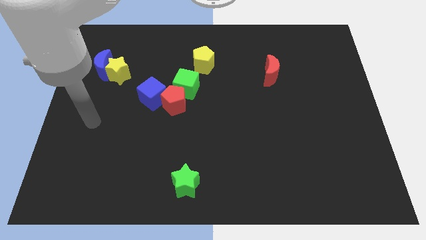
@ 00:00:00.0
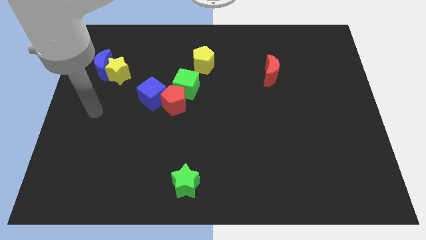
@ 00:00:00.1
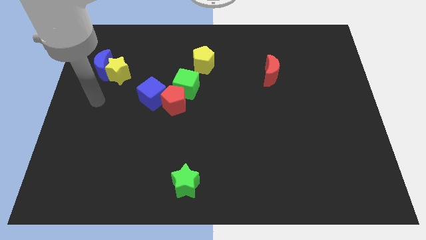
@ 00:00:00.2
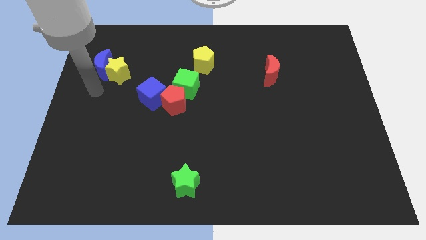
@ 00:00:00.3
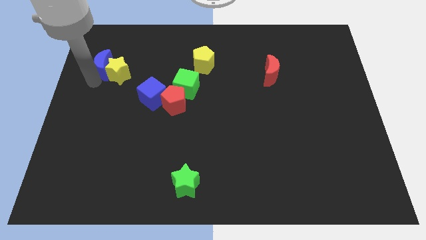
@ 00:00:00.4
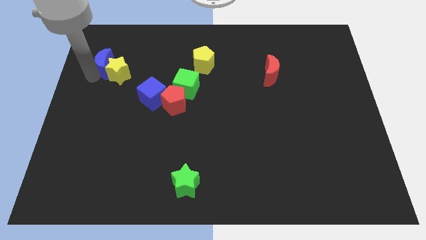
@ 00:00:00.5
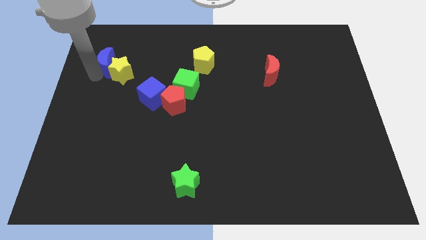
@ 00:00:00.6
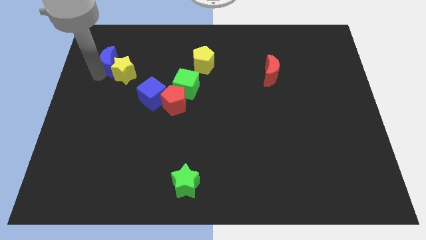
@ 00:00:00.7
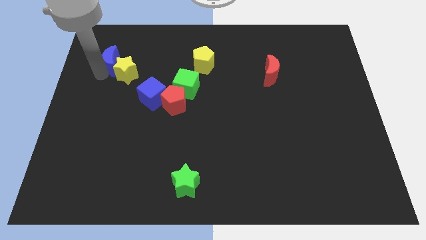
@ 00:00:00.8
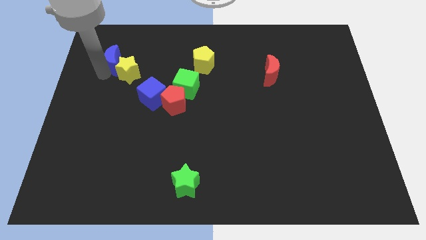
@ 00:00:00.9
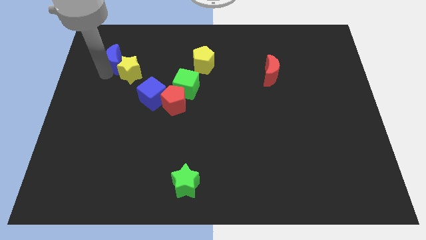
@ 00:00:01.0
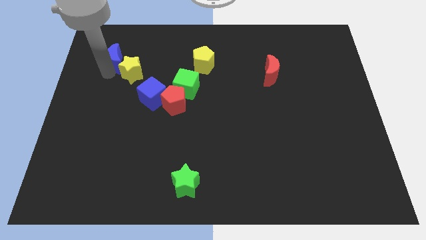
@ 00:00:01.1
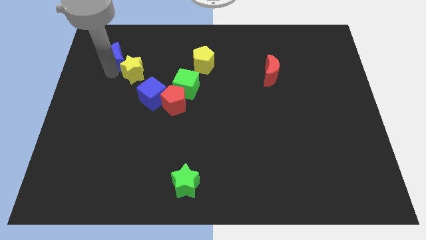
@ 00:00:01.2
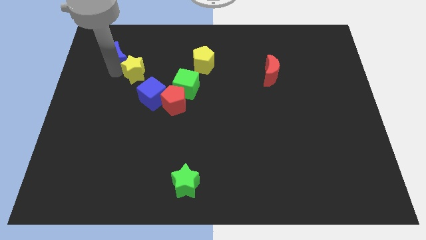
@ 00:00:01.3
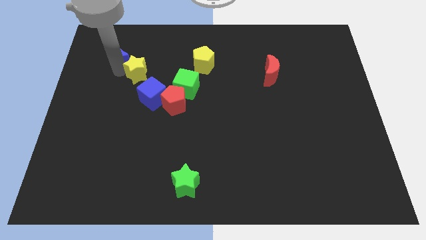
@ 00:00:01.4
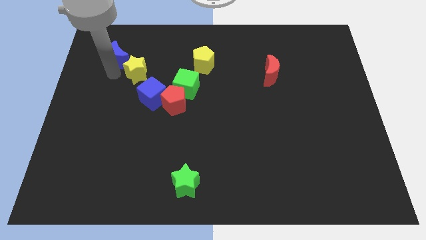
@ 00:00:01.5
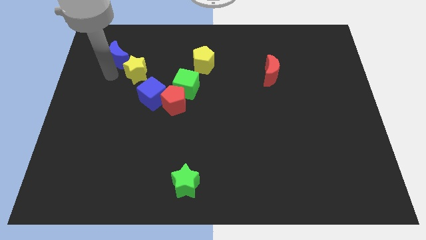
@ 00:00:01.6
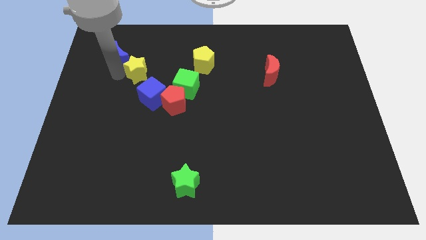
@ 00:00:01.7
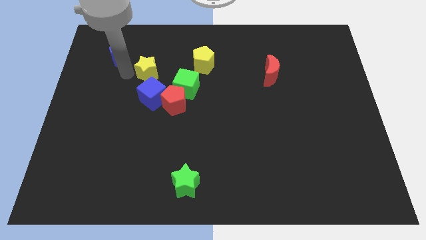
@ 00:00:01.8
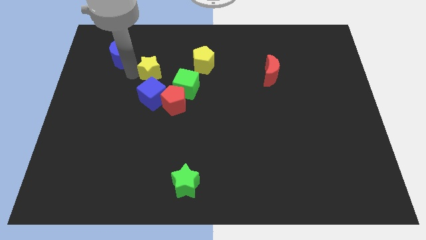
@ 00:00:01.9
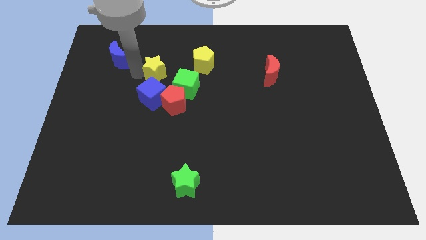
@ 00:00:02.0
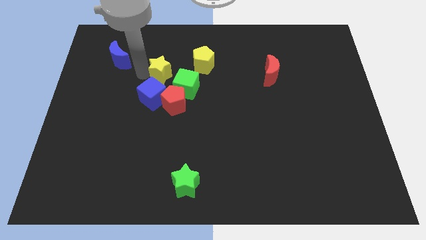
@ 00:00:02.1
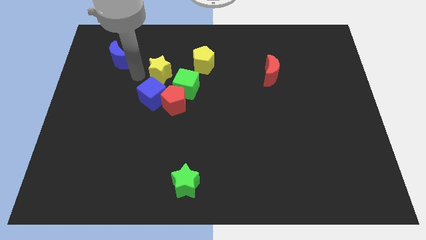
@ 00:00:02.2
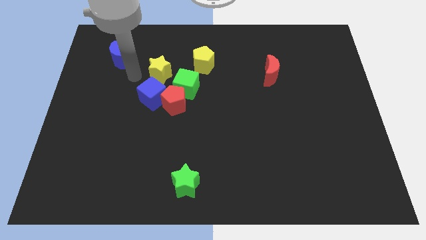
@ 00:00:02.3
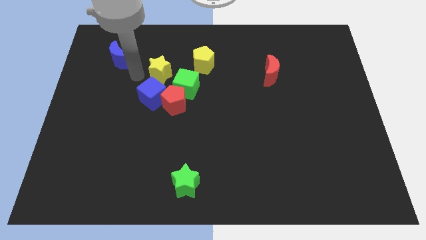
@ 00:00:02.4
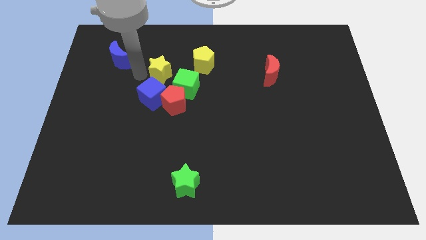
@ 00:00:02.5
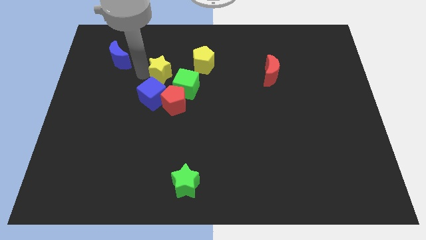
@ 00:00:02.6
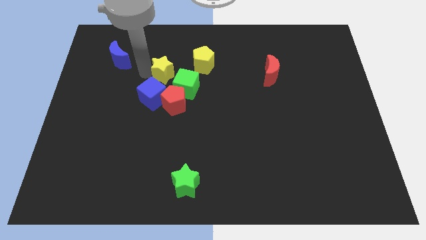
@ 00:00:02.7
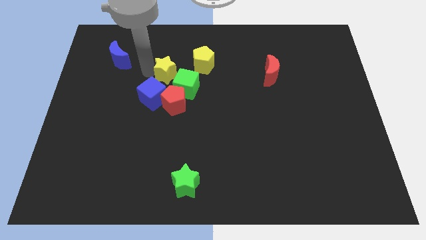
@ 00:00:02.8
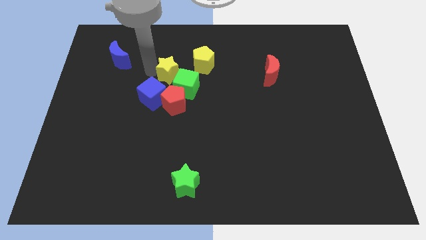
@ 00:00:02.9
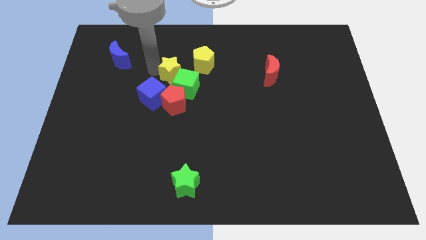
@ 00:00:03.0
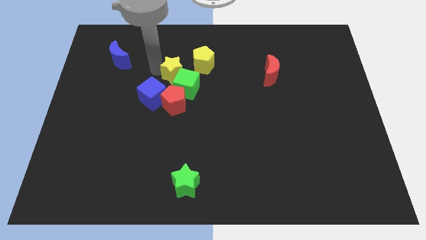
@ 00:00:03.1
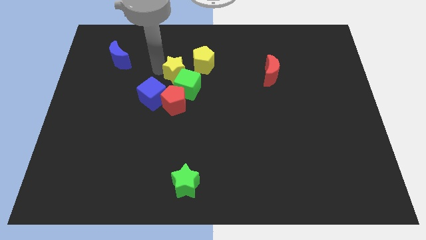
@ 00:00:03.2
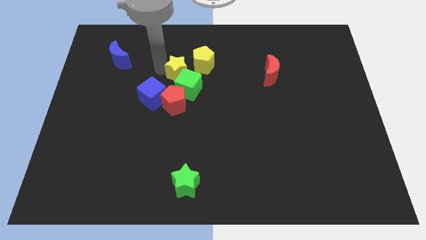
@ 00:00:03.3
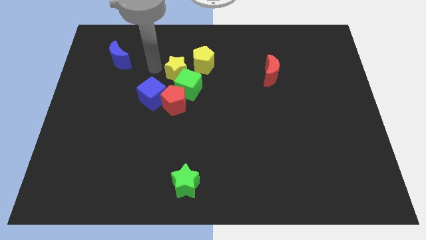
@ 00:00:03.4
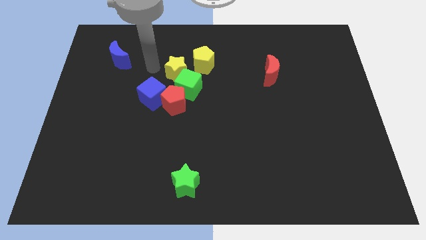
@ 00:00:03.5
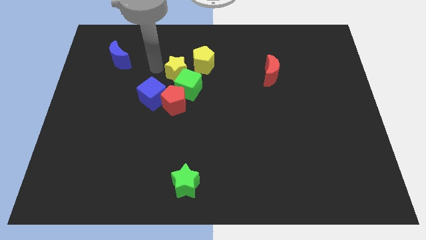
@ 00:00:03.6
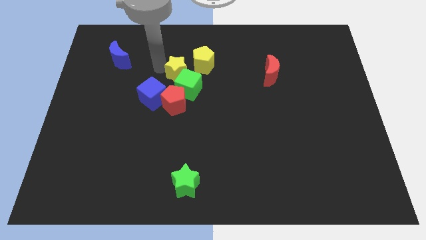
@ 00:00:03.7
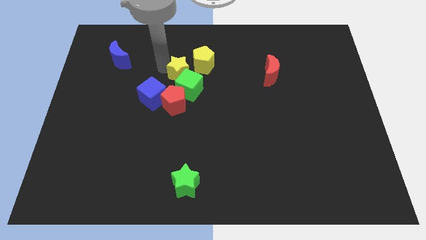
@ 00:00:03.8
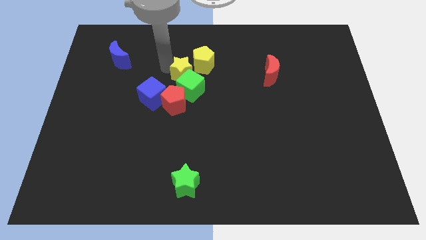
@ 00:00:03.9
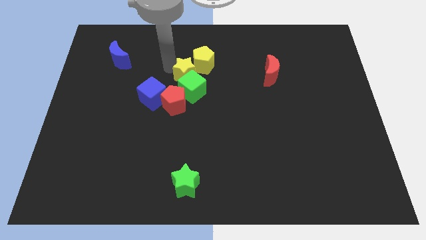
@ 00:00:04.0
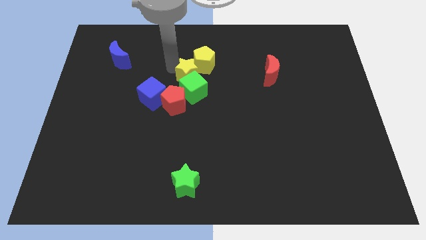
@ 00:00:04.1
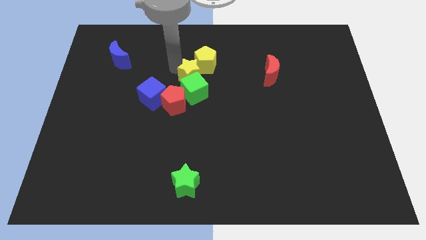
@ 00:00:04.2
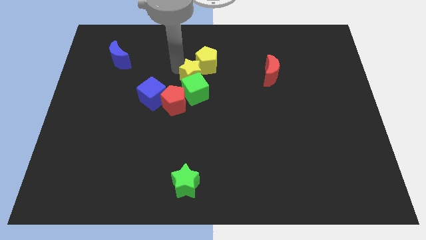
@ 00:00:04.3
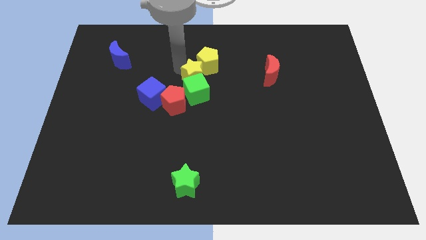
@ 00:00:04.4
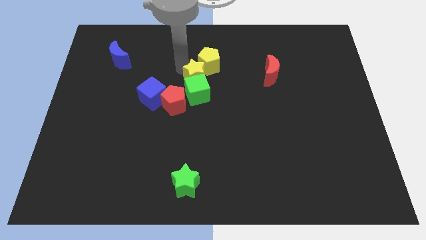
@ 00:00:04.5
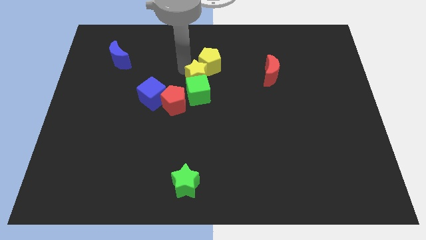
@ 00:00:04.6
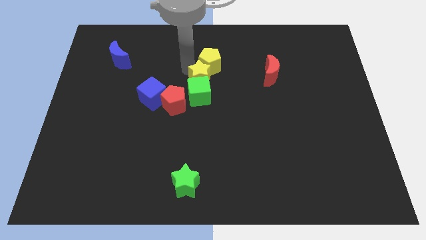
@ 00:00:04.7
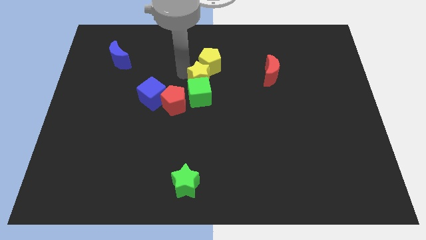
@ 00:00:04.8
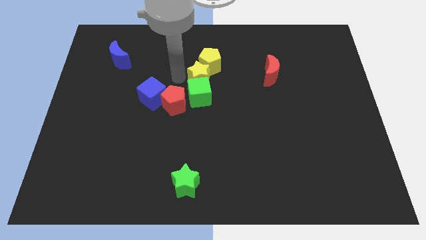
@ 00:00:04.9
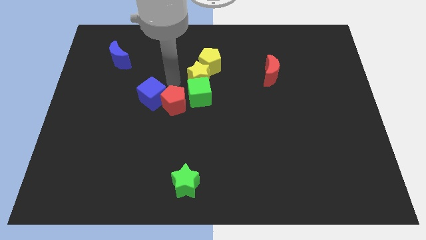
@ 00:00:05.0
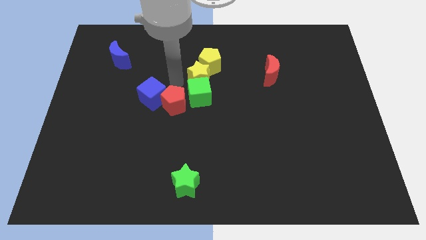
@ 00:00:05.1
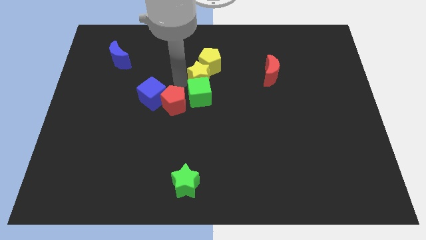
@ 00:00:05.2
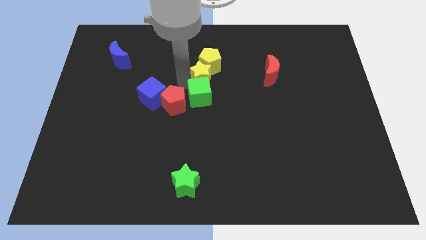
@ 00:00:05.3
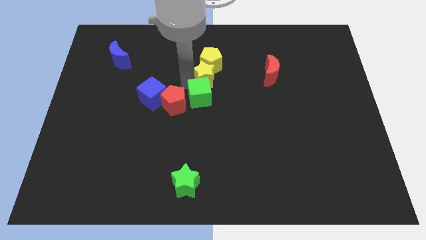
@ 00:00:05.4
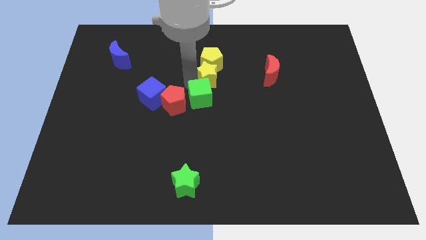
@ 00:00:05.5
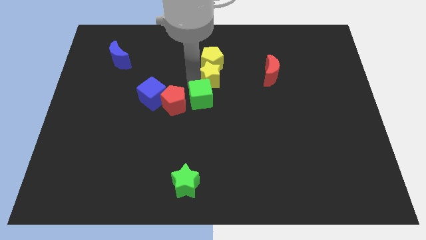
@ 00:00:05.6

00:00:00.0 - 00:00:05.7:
put the yellow star to the left side of the red moon
